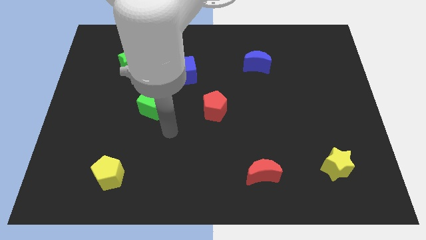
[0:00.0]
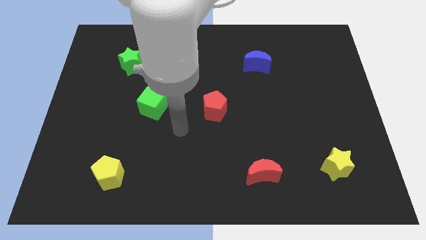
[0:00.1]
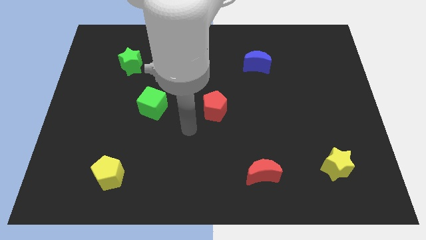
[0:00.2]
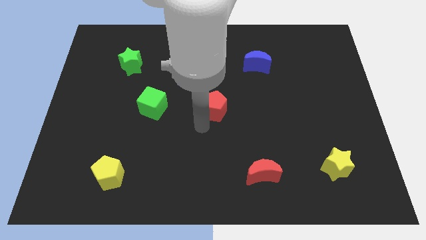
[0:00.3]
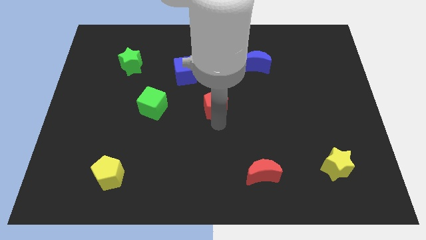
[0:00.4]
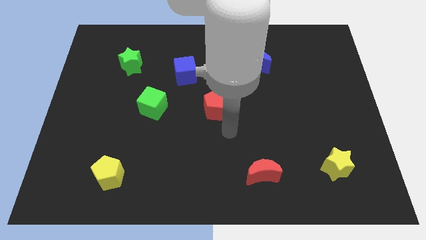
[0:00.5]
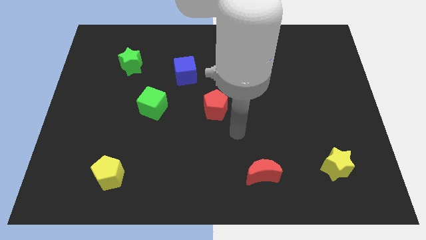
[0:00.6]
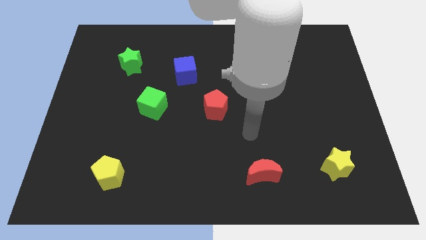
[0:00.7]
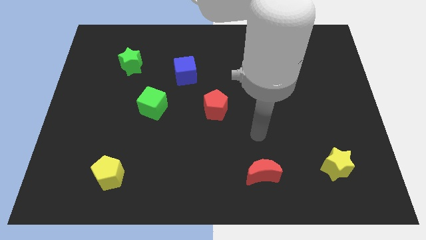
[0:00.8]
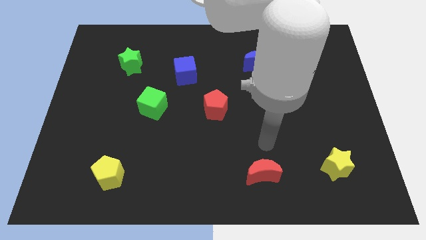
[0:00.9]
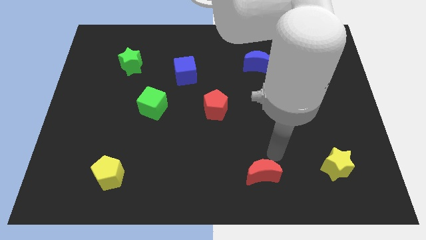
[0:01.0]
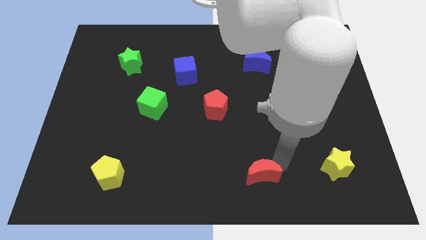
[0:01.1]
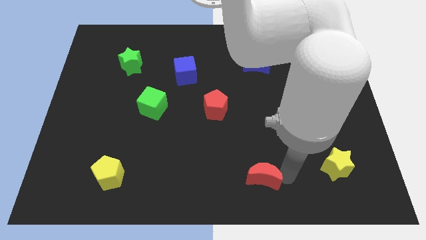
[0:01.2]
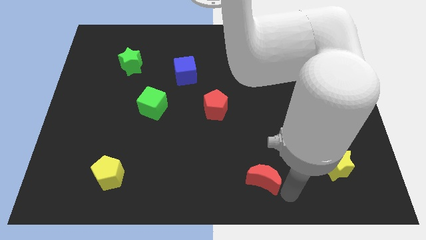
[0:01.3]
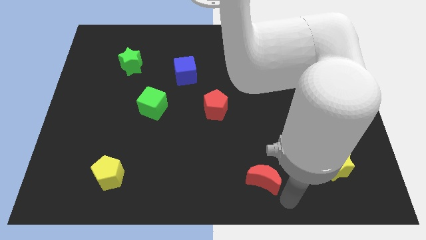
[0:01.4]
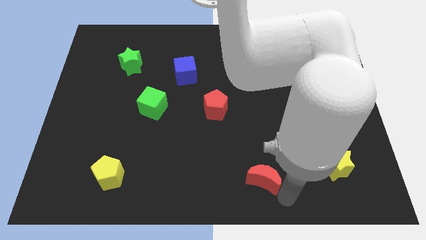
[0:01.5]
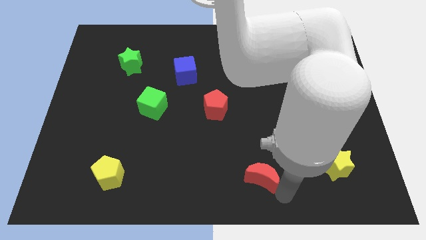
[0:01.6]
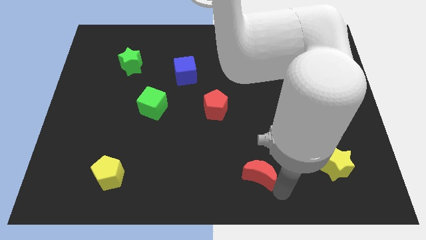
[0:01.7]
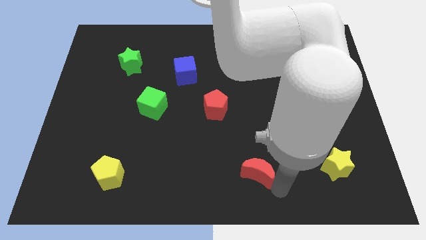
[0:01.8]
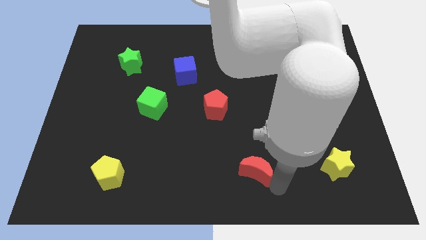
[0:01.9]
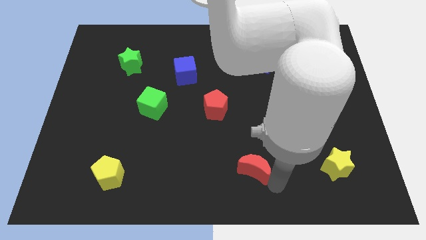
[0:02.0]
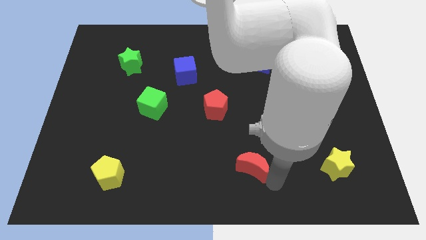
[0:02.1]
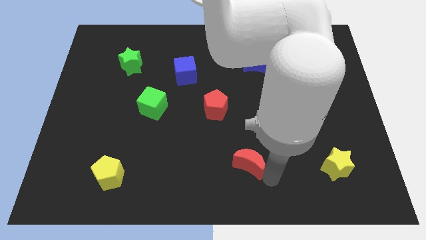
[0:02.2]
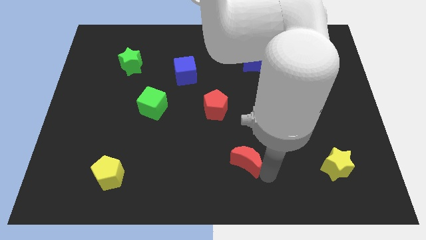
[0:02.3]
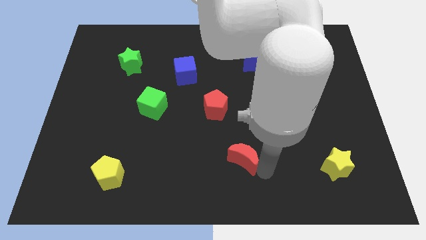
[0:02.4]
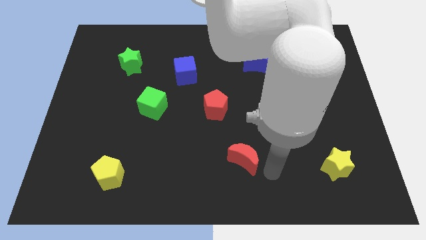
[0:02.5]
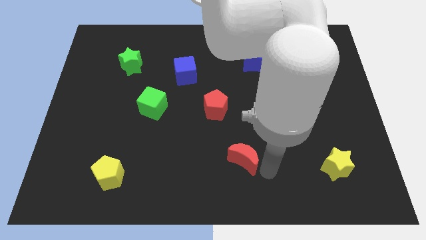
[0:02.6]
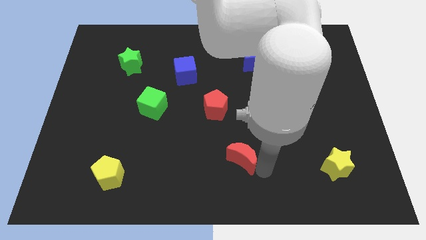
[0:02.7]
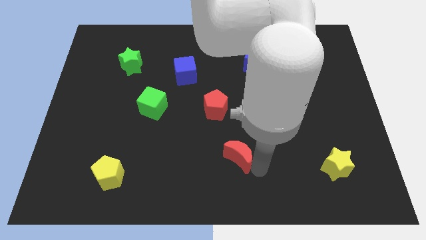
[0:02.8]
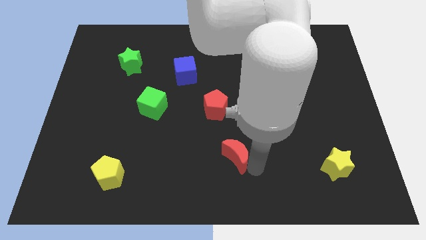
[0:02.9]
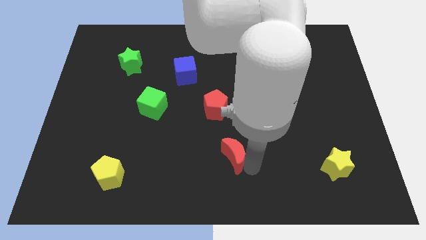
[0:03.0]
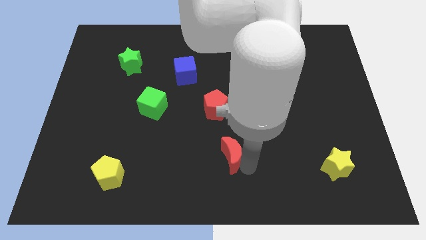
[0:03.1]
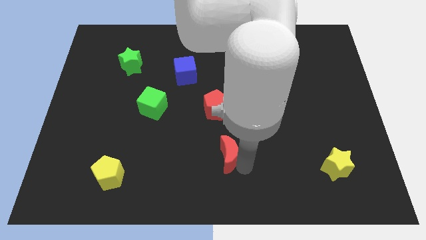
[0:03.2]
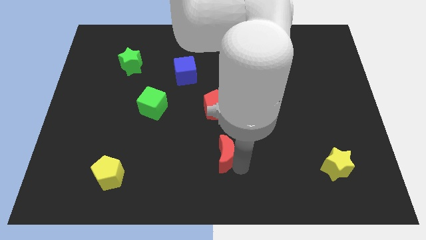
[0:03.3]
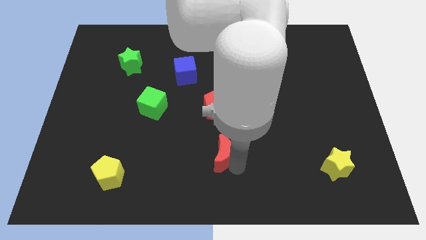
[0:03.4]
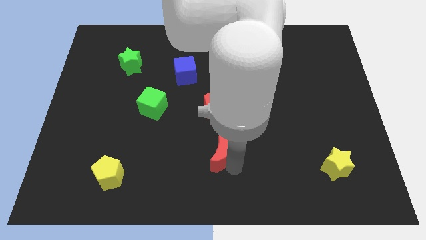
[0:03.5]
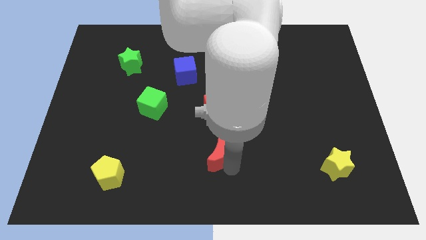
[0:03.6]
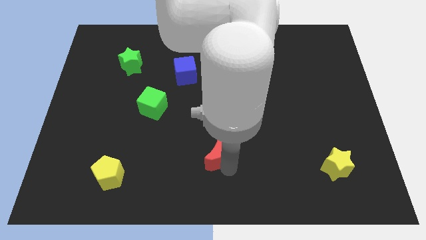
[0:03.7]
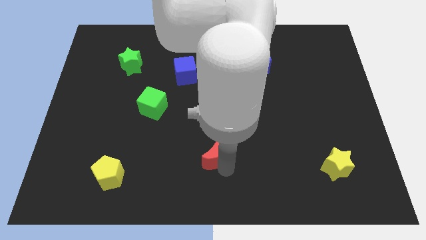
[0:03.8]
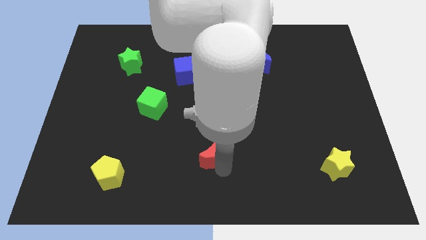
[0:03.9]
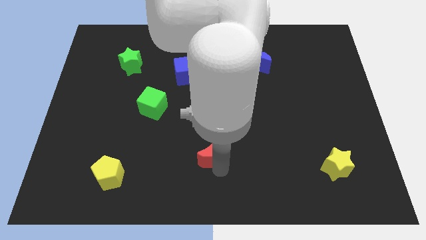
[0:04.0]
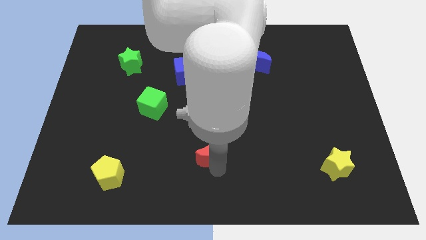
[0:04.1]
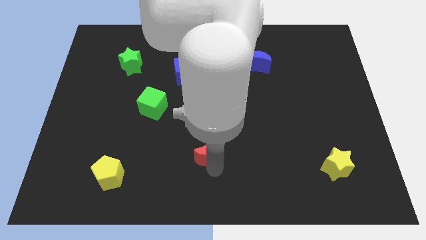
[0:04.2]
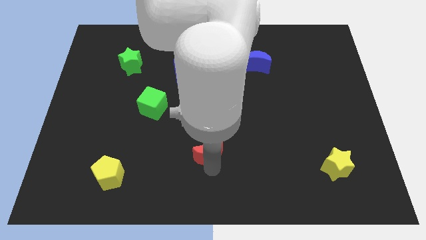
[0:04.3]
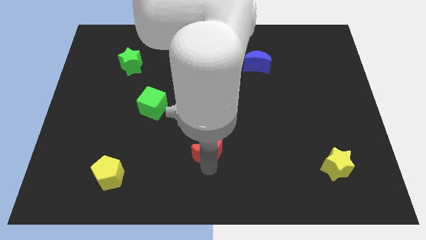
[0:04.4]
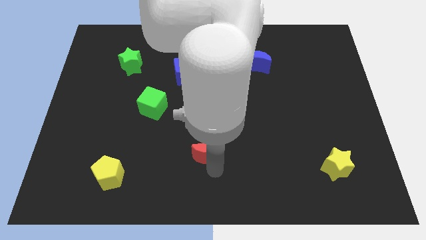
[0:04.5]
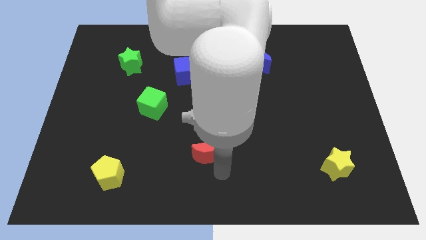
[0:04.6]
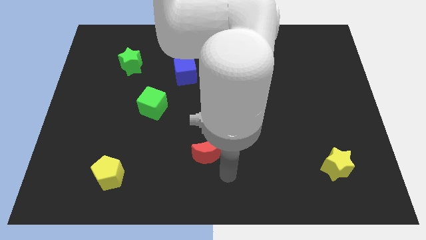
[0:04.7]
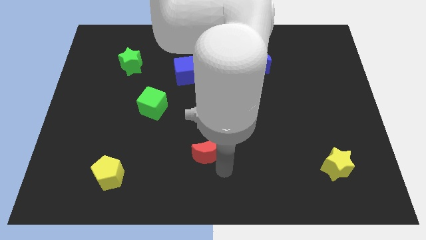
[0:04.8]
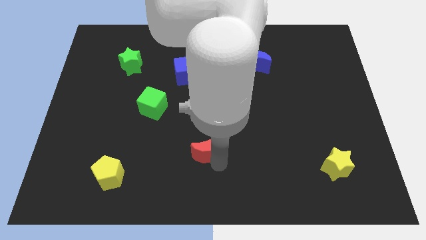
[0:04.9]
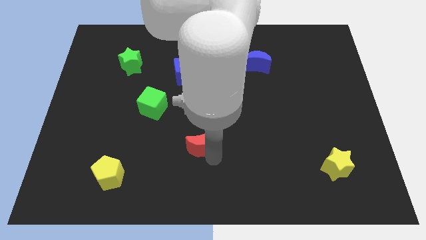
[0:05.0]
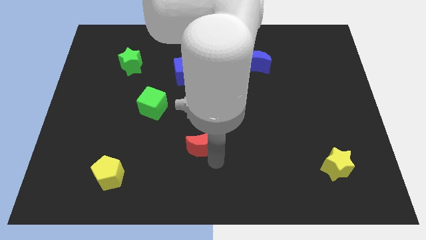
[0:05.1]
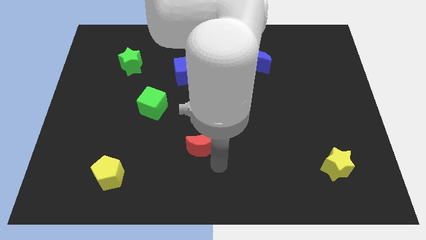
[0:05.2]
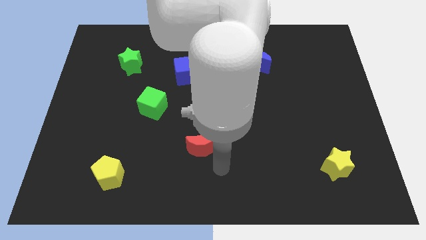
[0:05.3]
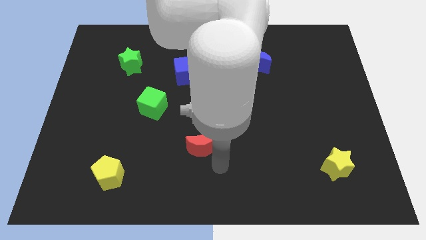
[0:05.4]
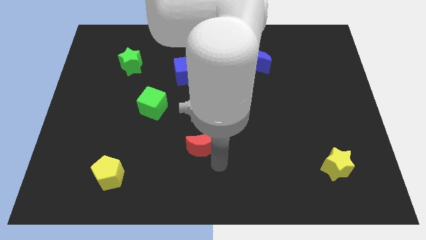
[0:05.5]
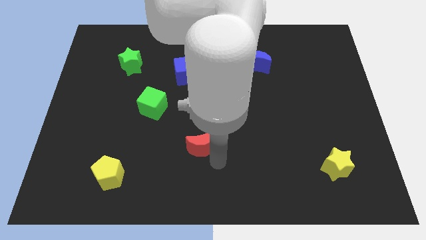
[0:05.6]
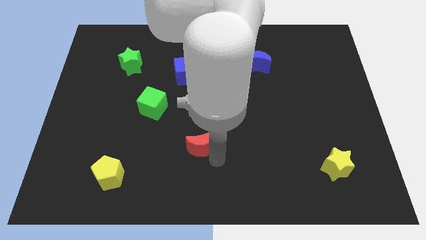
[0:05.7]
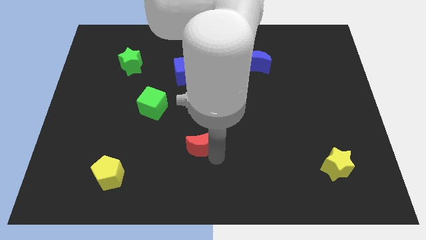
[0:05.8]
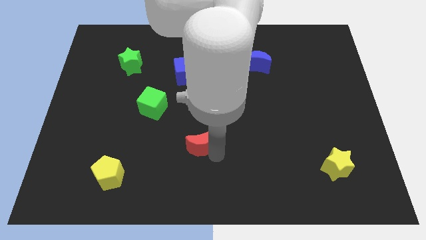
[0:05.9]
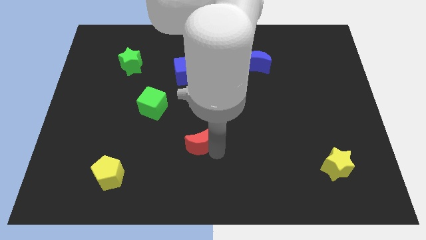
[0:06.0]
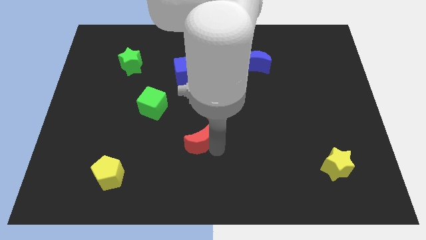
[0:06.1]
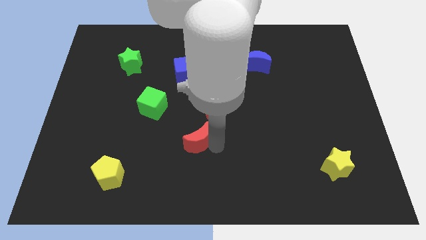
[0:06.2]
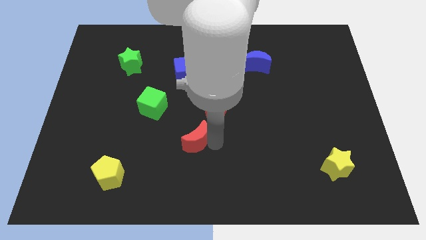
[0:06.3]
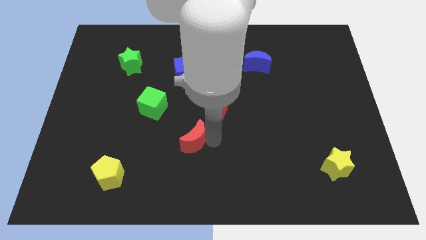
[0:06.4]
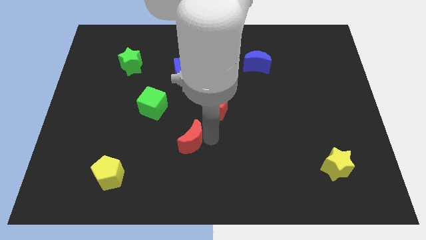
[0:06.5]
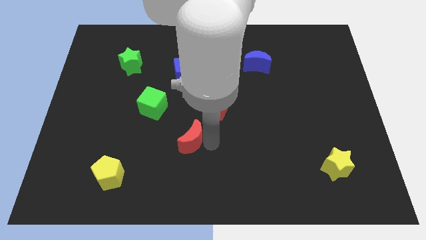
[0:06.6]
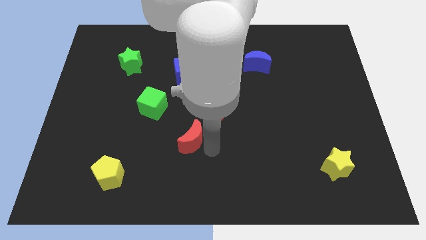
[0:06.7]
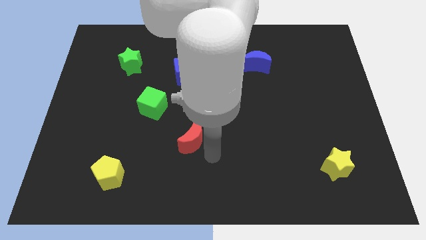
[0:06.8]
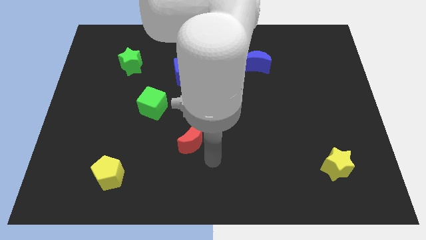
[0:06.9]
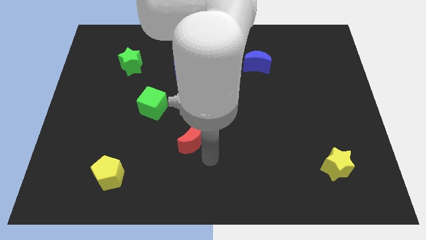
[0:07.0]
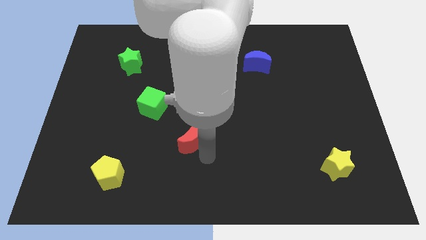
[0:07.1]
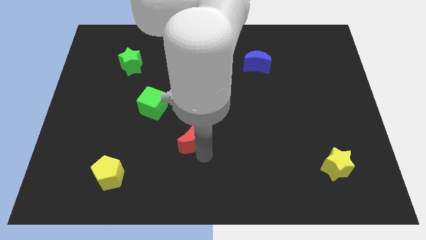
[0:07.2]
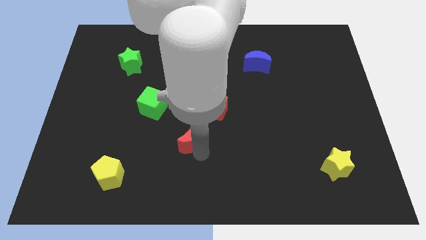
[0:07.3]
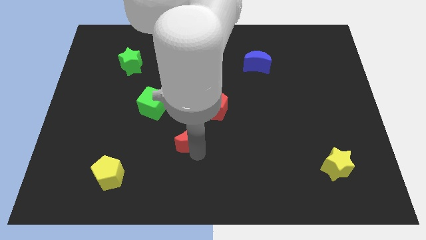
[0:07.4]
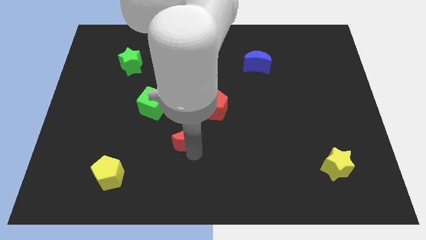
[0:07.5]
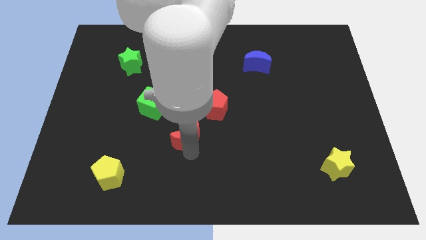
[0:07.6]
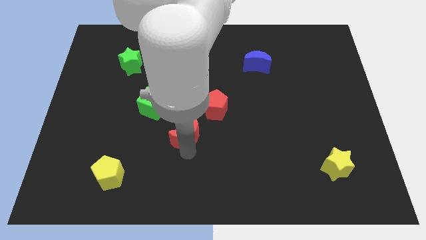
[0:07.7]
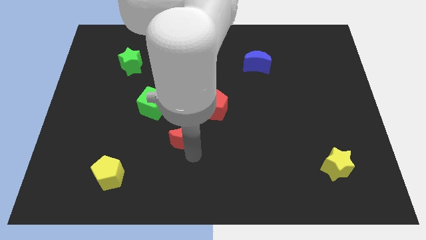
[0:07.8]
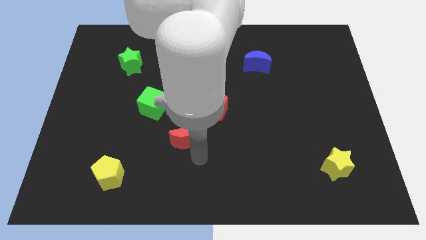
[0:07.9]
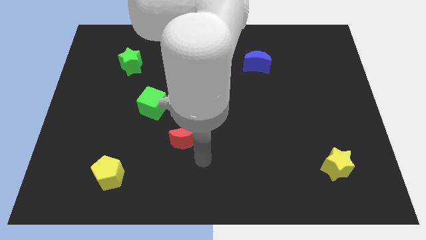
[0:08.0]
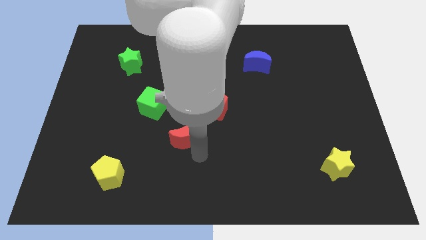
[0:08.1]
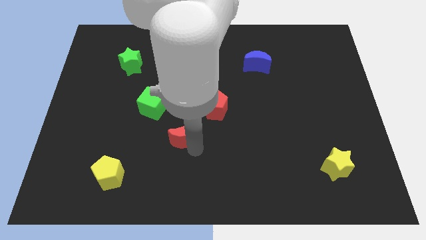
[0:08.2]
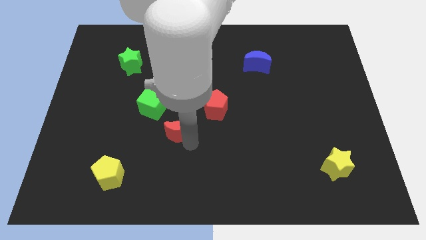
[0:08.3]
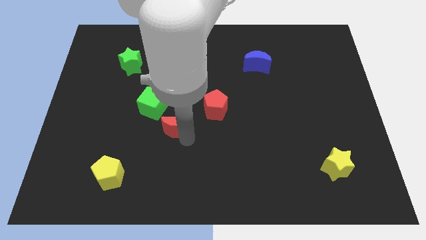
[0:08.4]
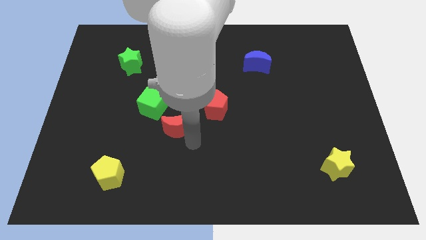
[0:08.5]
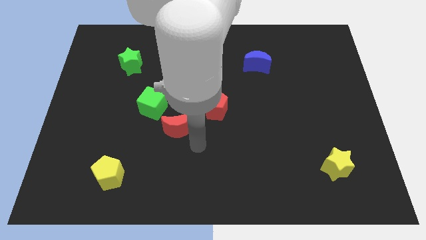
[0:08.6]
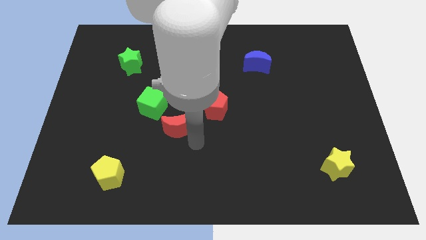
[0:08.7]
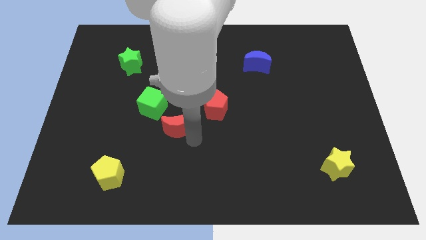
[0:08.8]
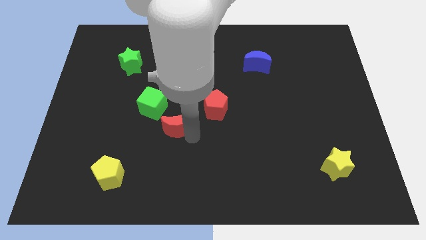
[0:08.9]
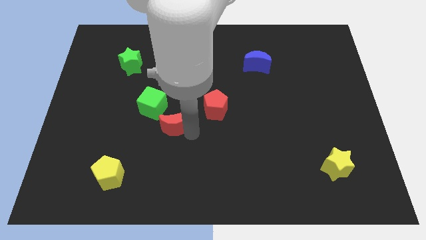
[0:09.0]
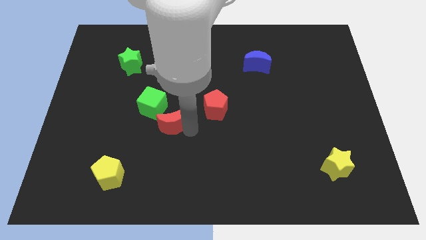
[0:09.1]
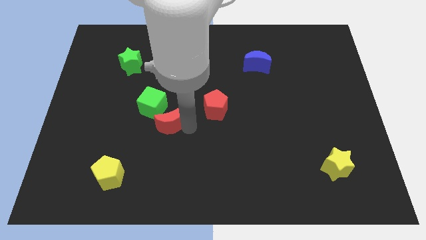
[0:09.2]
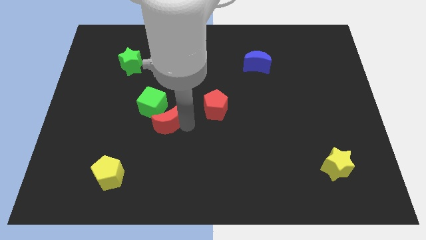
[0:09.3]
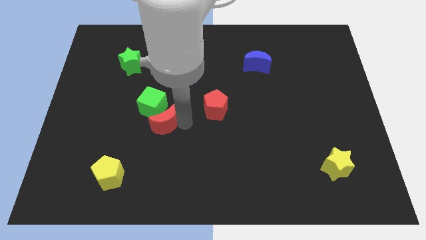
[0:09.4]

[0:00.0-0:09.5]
slide the red moon next to the green cube
